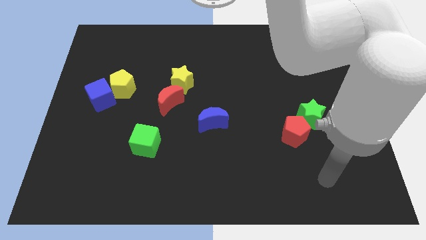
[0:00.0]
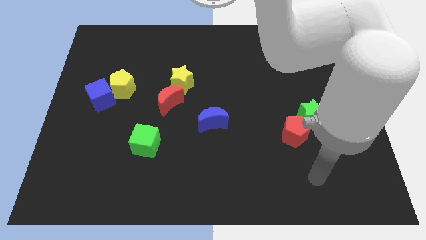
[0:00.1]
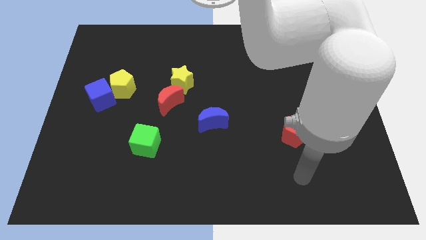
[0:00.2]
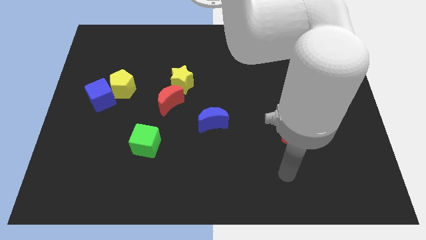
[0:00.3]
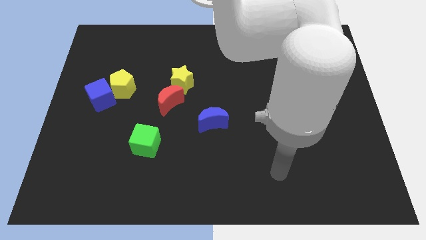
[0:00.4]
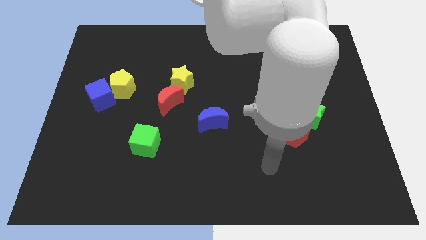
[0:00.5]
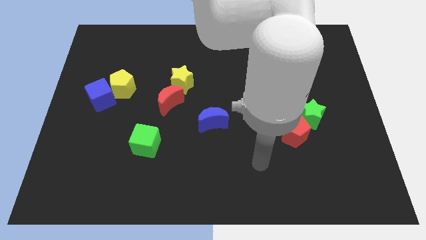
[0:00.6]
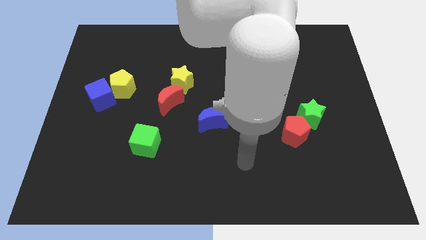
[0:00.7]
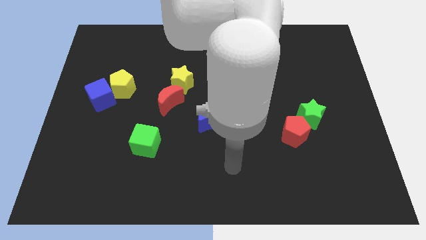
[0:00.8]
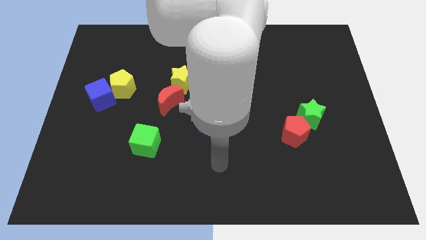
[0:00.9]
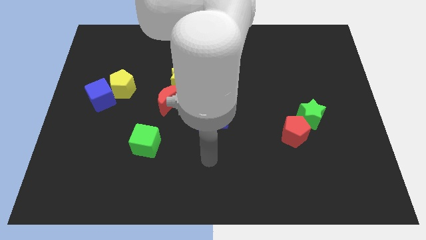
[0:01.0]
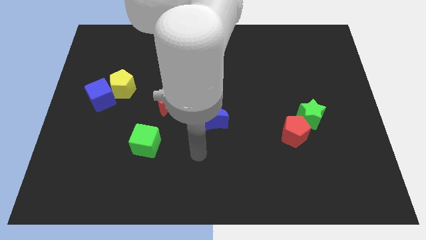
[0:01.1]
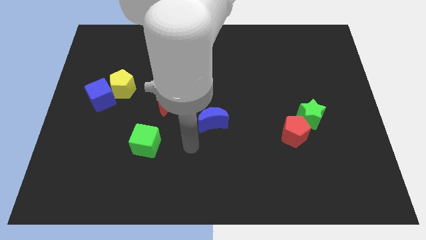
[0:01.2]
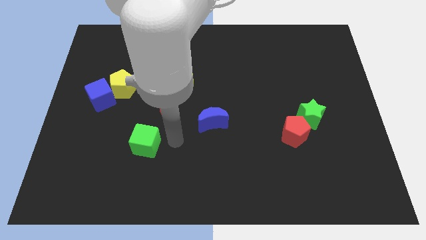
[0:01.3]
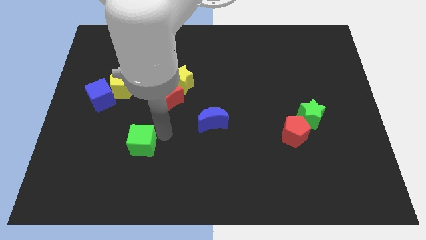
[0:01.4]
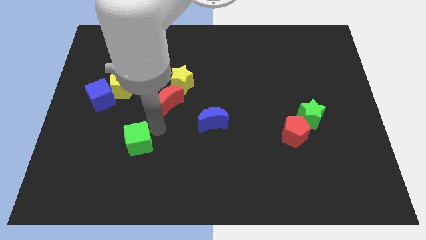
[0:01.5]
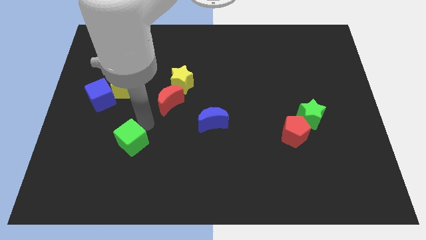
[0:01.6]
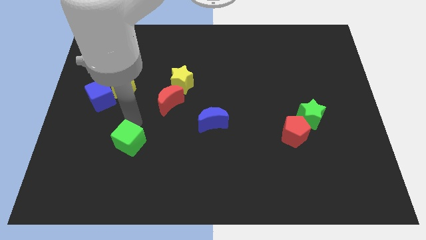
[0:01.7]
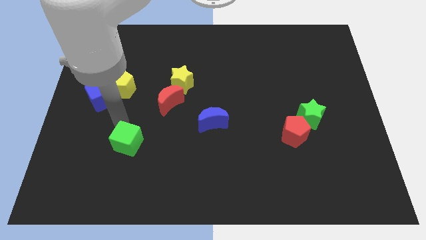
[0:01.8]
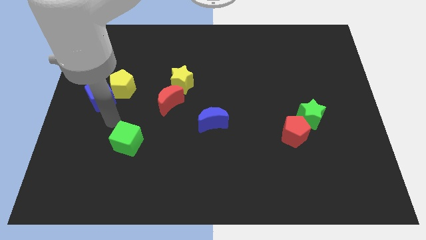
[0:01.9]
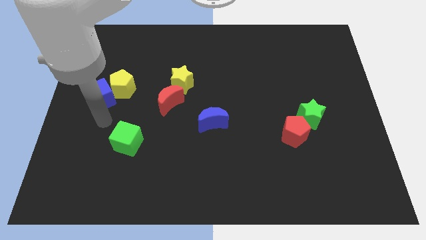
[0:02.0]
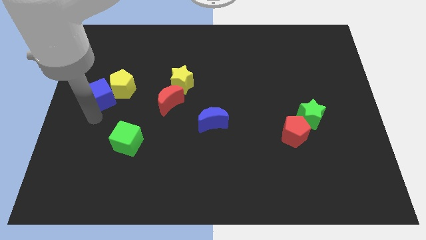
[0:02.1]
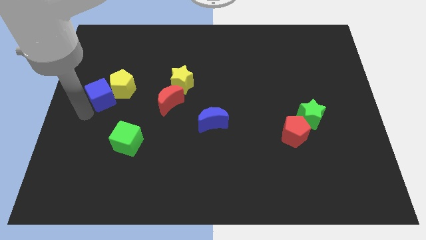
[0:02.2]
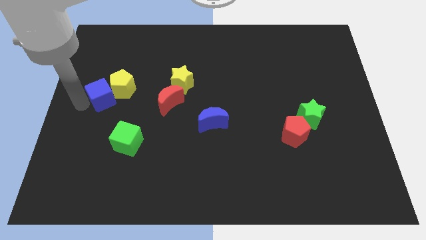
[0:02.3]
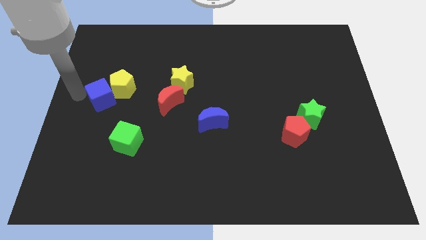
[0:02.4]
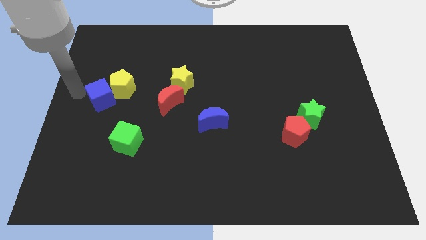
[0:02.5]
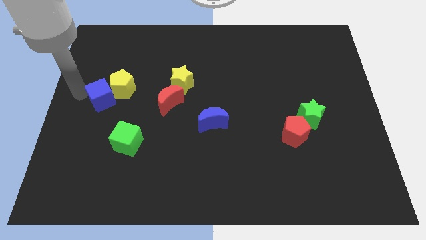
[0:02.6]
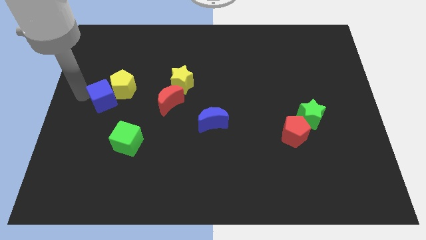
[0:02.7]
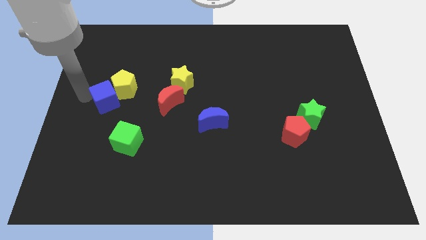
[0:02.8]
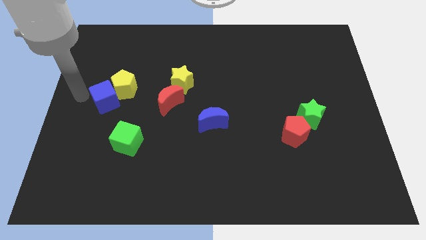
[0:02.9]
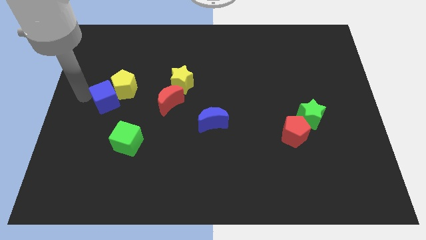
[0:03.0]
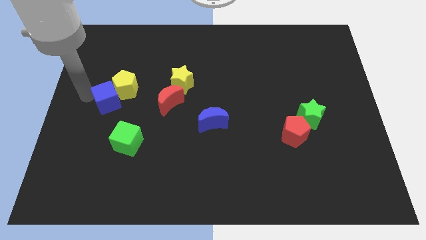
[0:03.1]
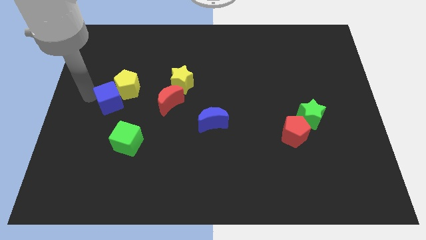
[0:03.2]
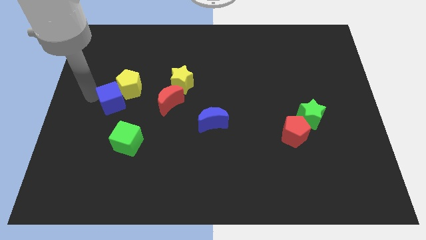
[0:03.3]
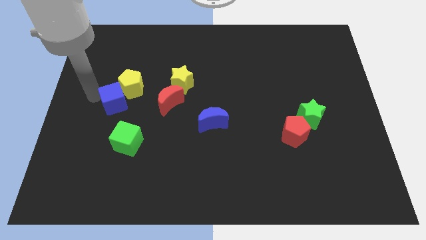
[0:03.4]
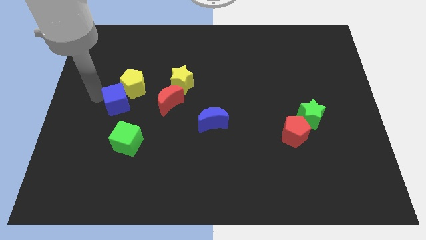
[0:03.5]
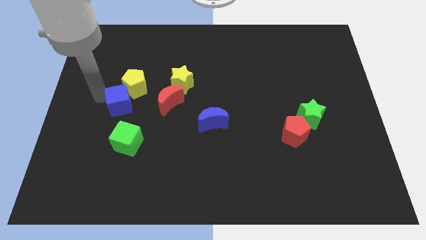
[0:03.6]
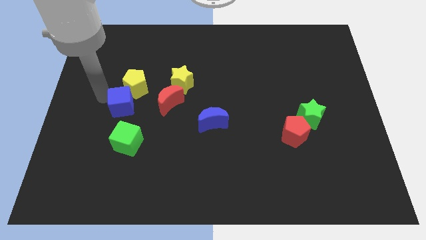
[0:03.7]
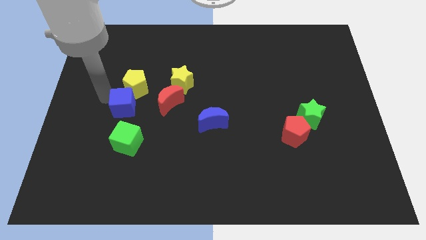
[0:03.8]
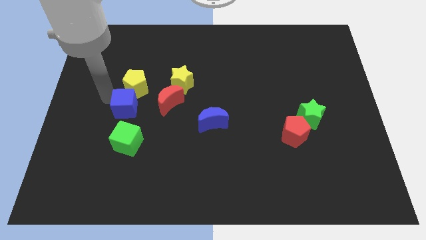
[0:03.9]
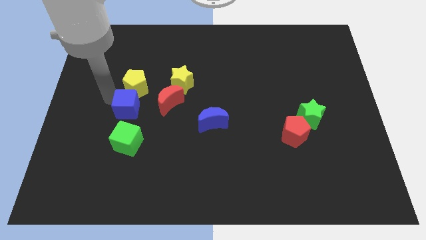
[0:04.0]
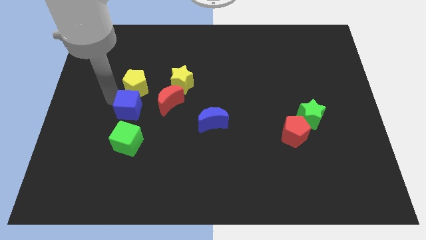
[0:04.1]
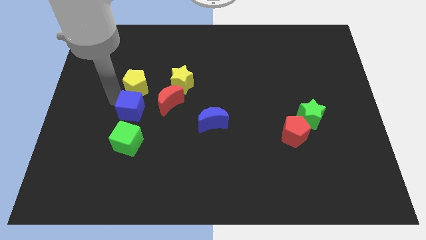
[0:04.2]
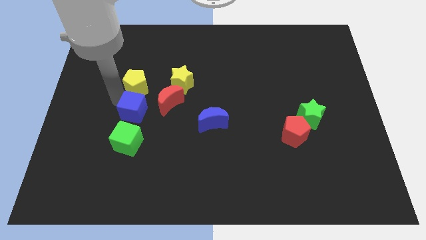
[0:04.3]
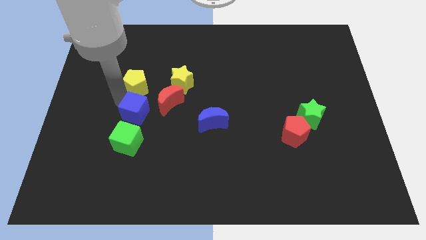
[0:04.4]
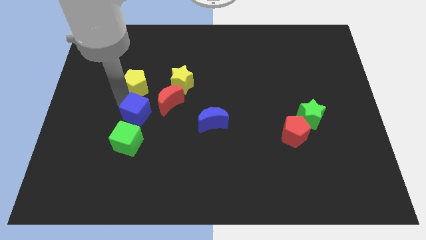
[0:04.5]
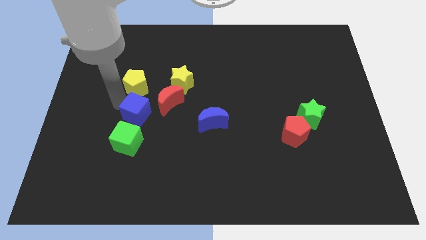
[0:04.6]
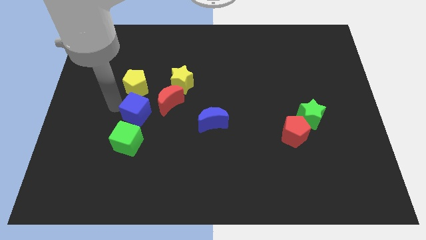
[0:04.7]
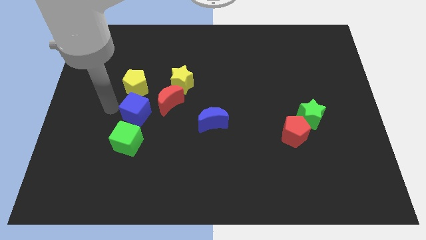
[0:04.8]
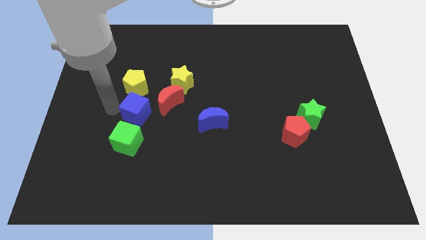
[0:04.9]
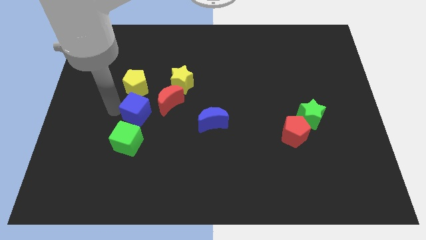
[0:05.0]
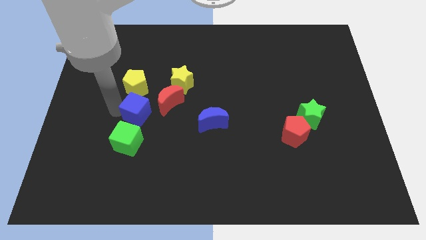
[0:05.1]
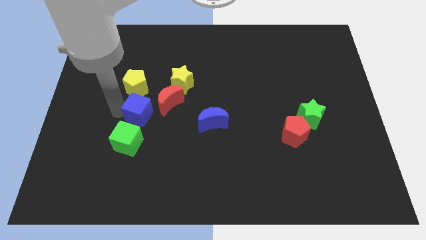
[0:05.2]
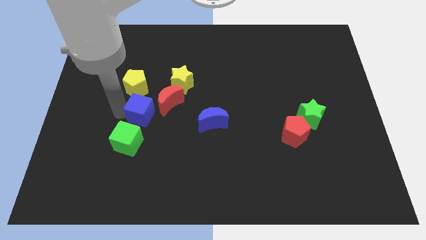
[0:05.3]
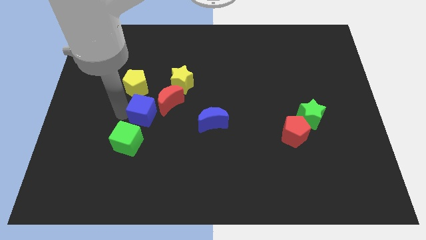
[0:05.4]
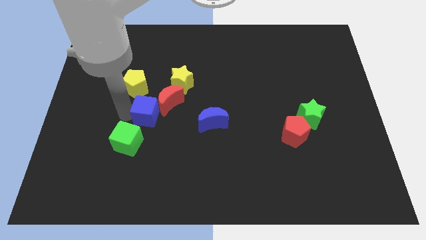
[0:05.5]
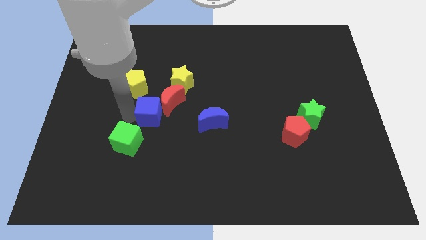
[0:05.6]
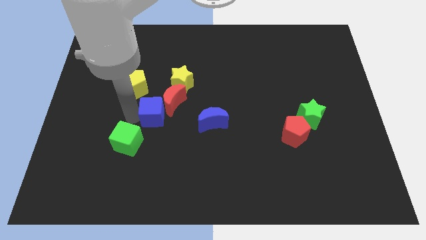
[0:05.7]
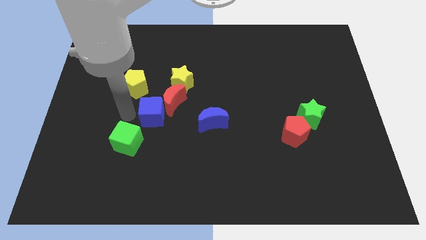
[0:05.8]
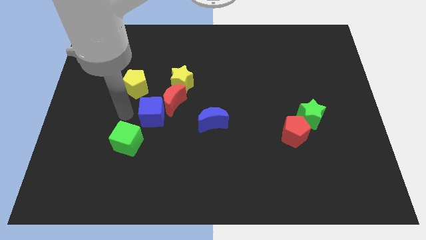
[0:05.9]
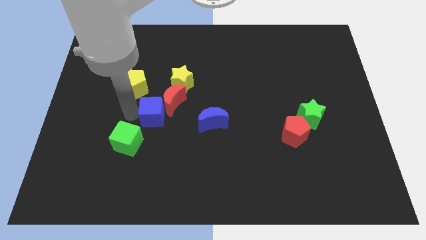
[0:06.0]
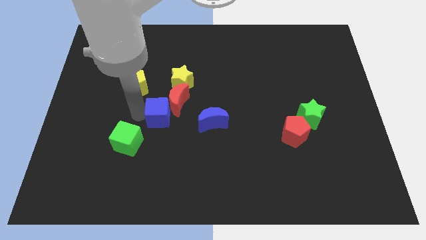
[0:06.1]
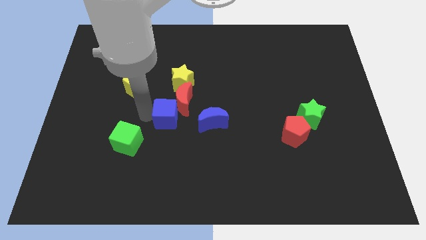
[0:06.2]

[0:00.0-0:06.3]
put the blue cube below the yellow star
